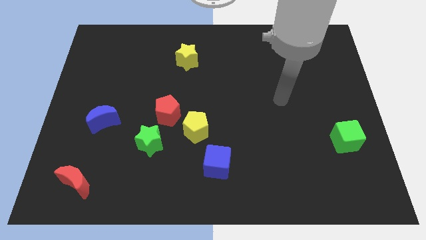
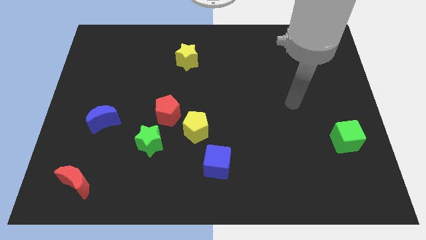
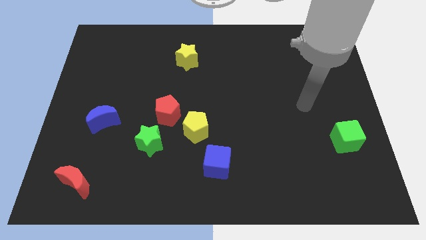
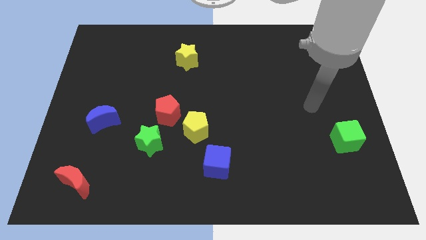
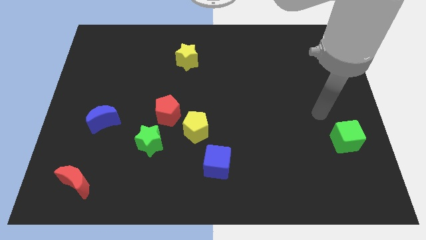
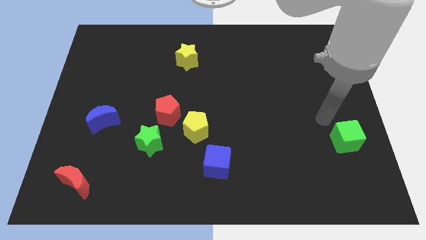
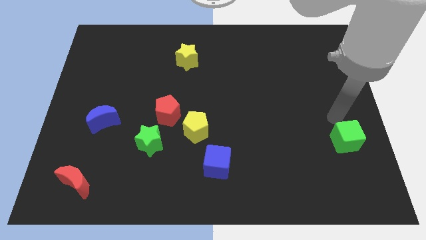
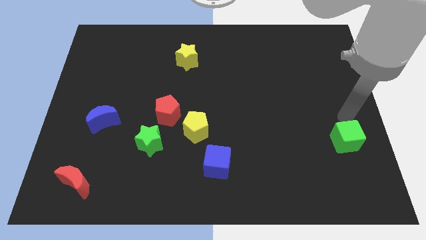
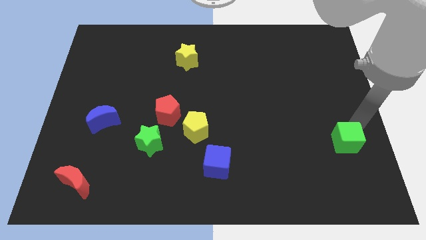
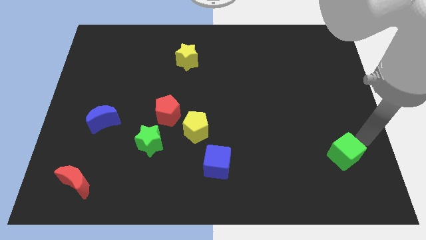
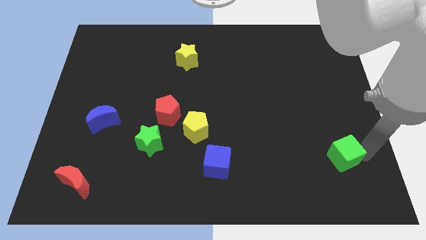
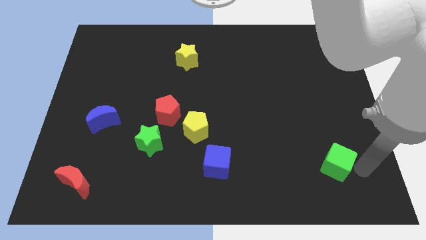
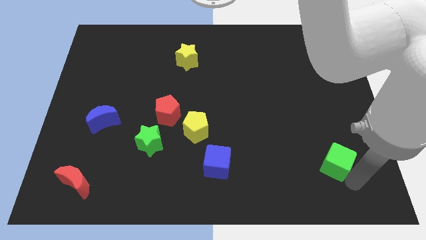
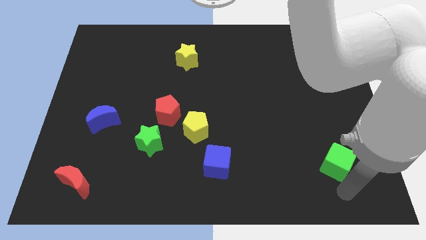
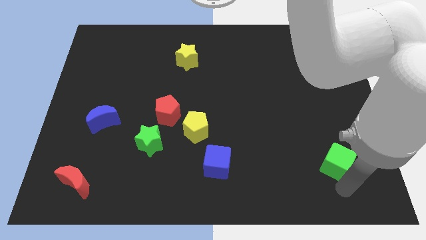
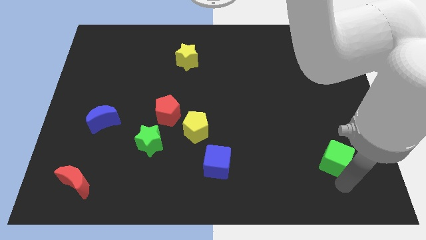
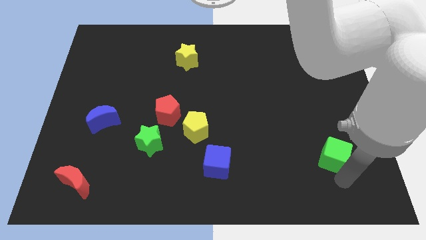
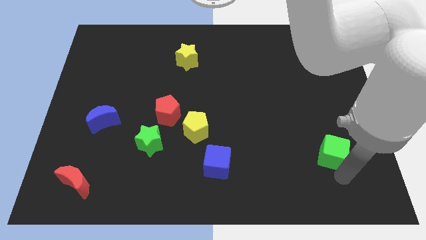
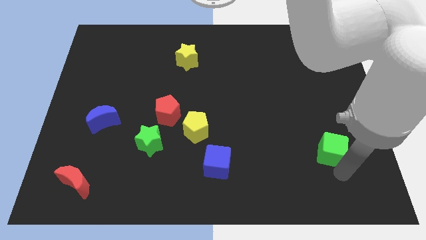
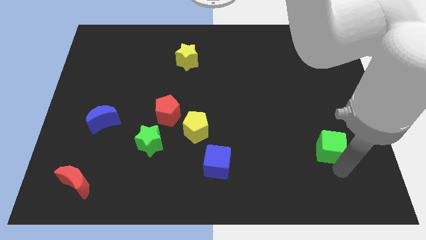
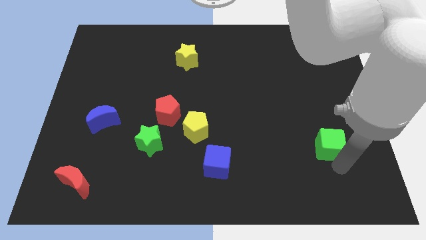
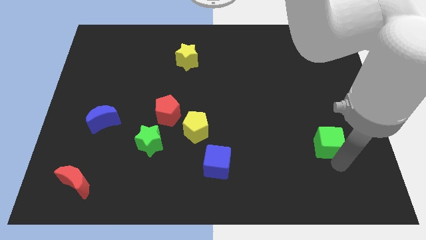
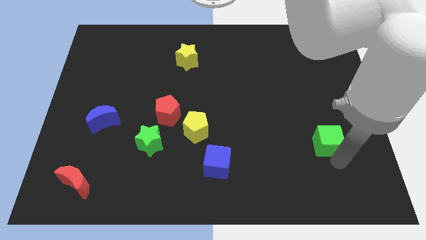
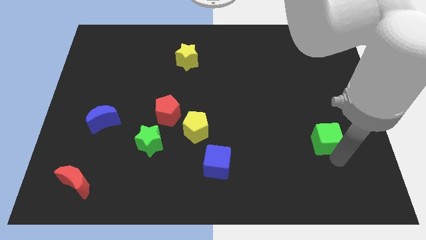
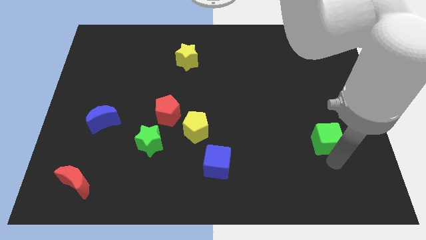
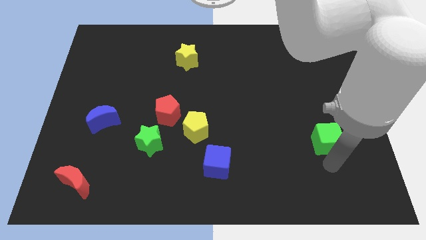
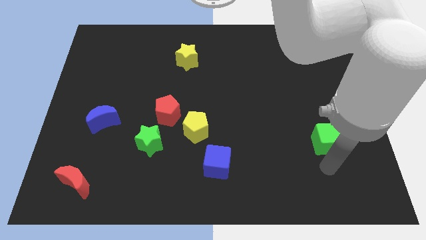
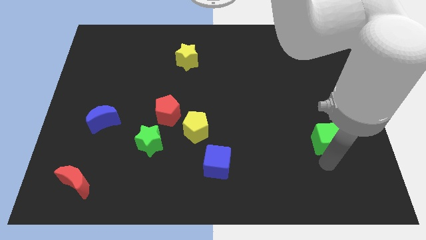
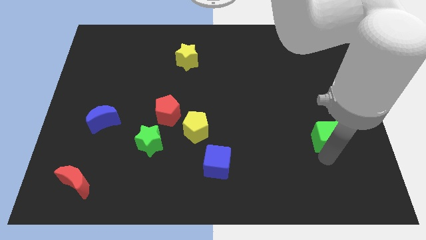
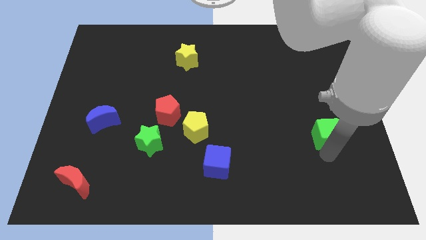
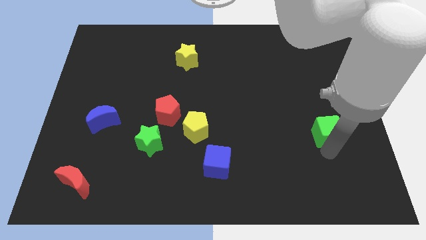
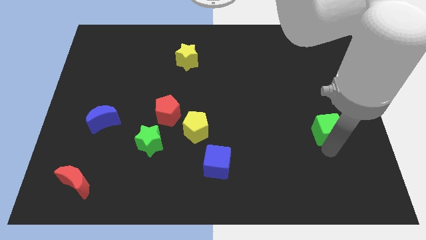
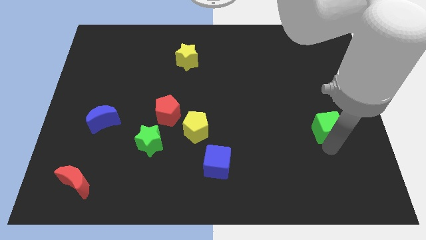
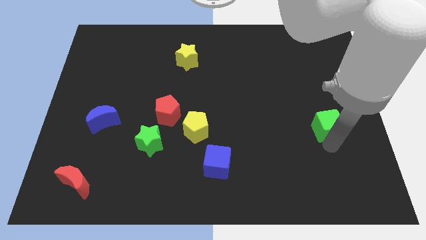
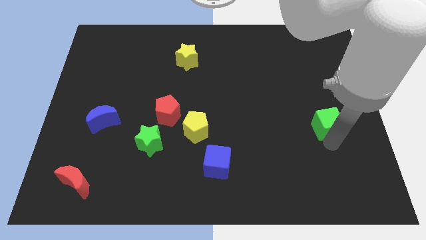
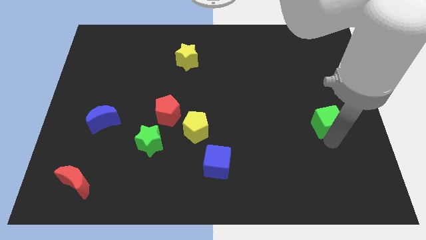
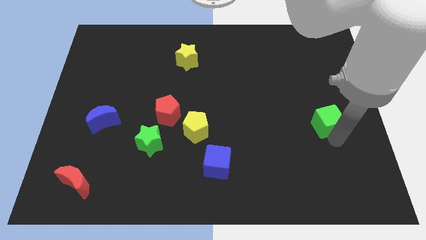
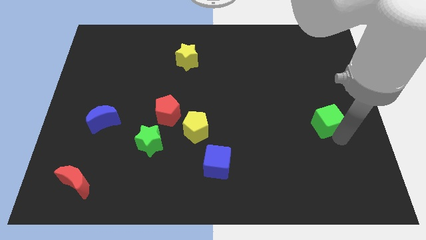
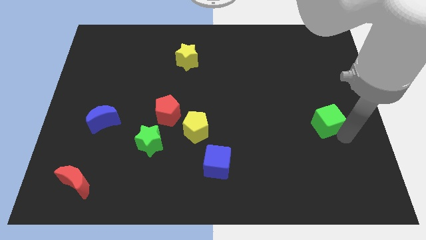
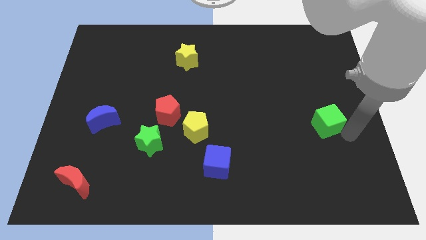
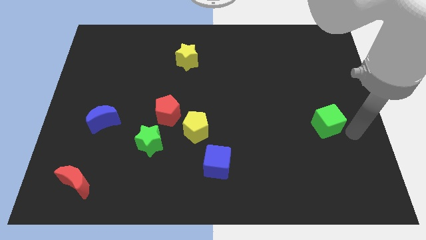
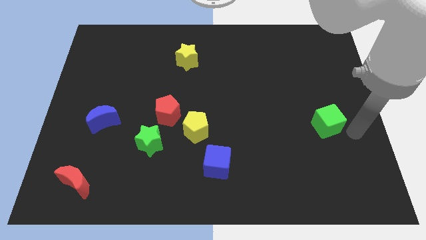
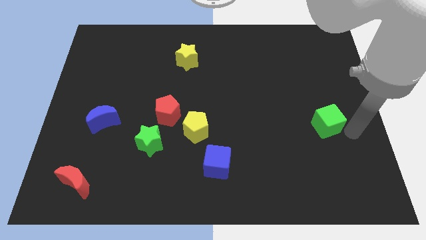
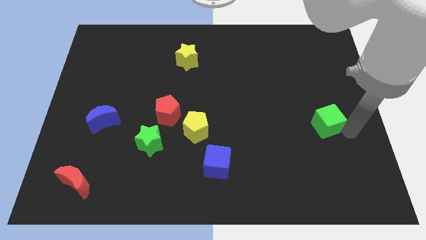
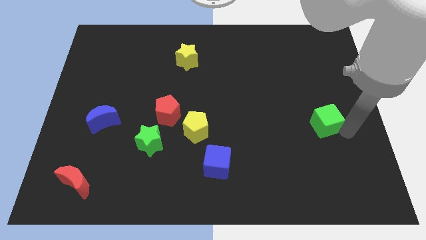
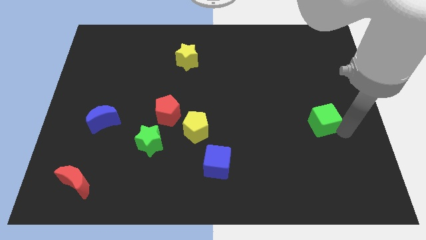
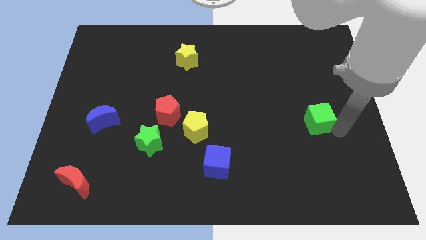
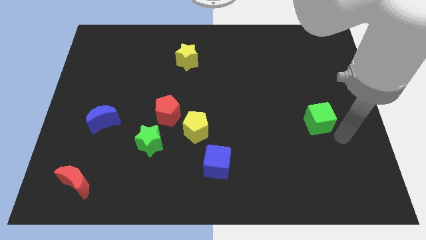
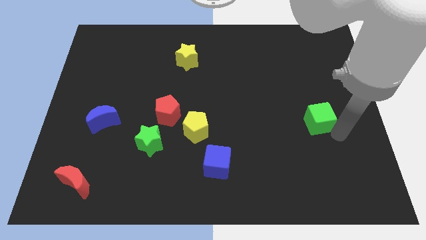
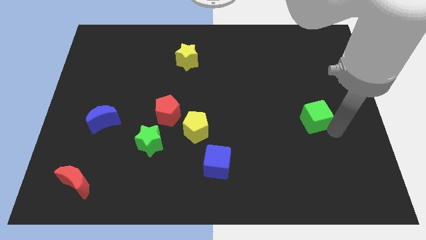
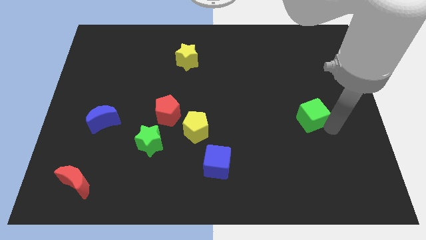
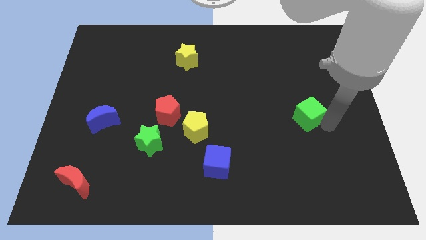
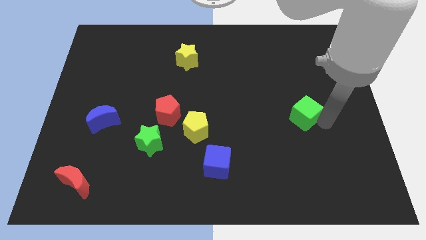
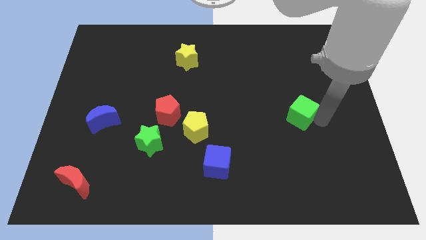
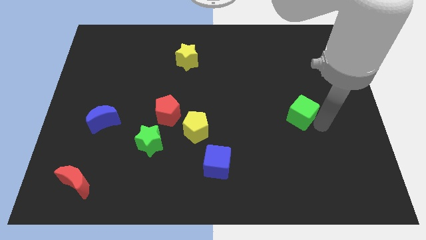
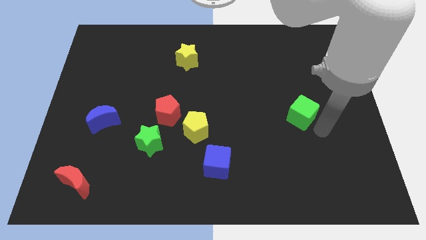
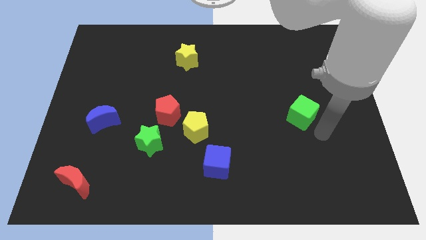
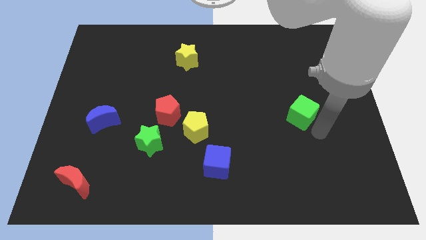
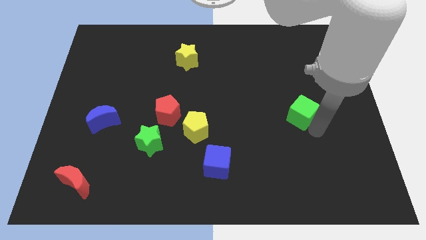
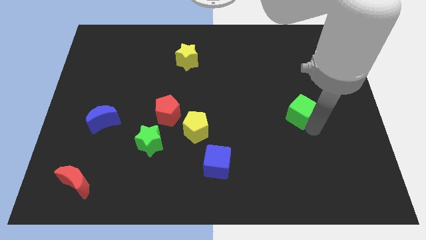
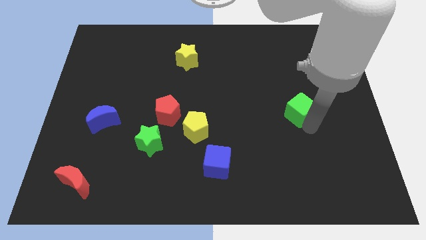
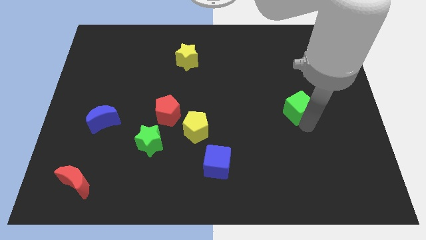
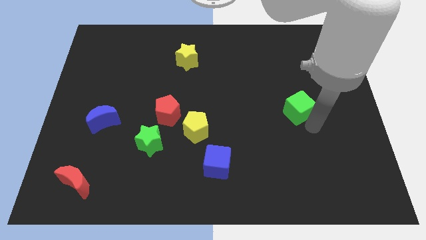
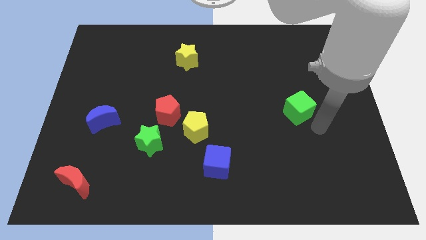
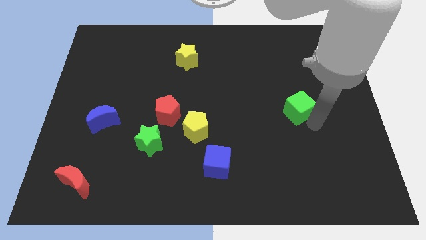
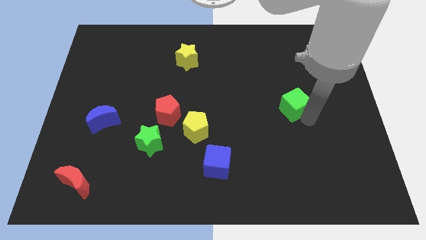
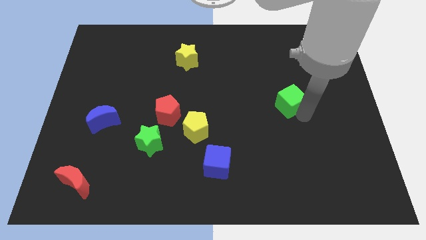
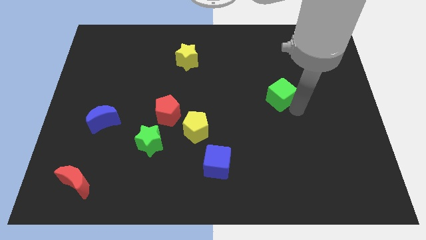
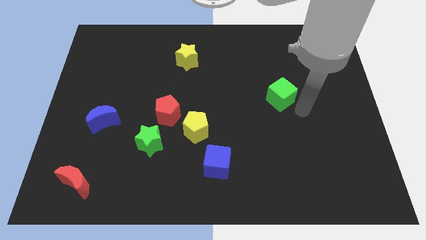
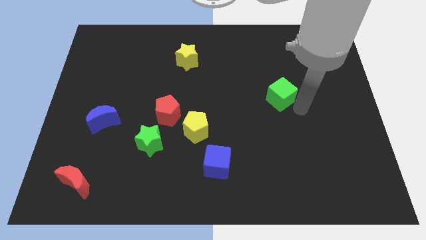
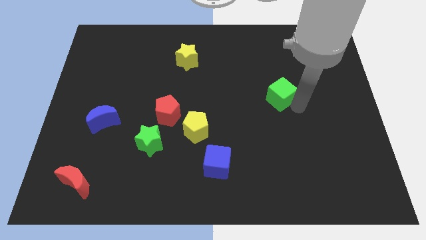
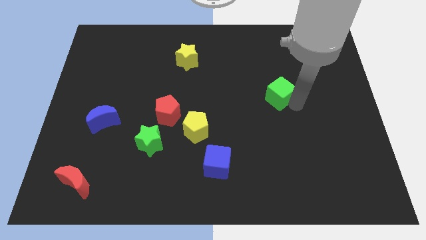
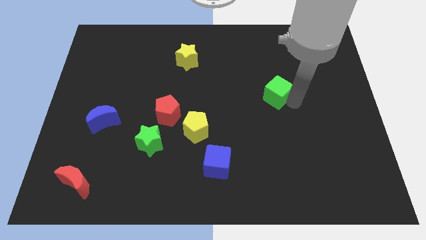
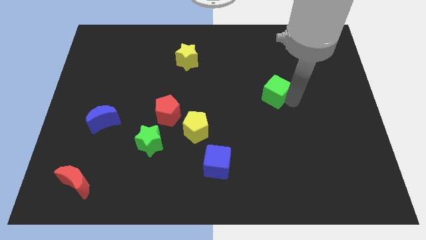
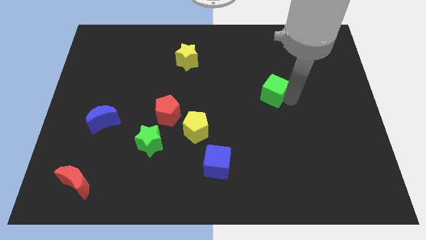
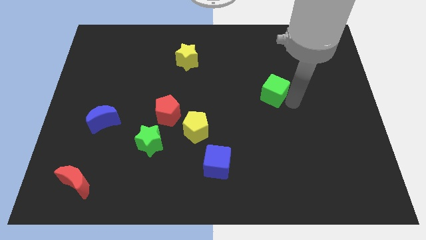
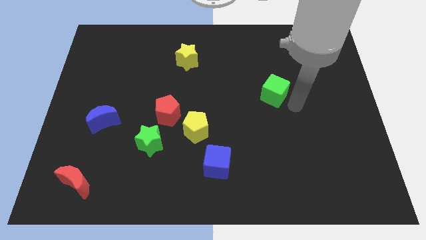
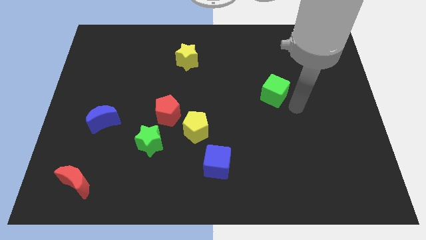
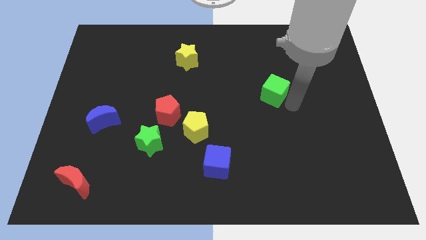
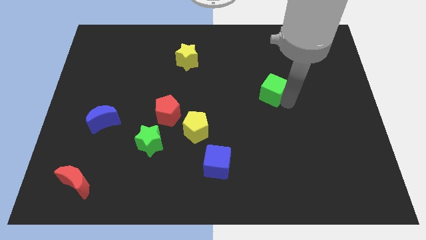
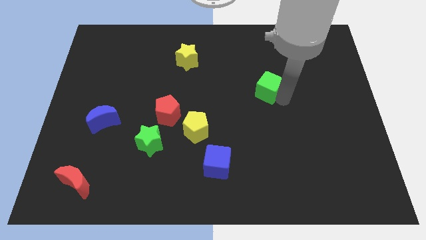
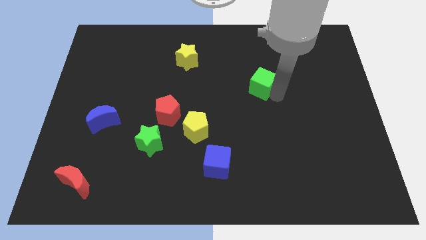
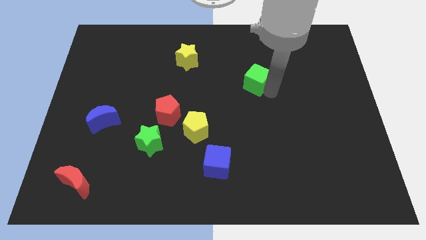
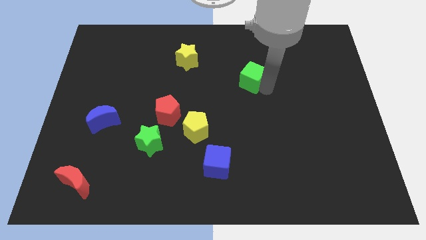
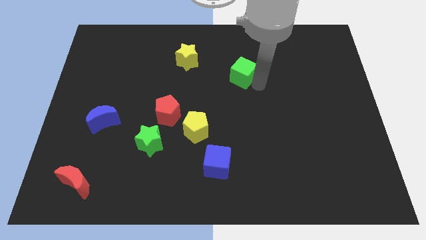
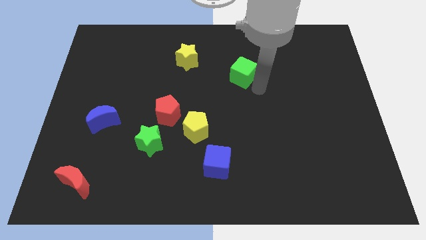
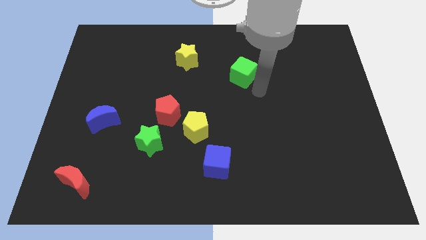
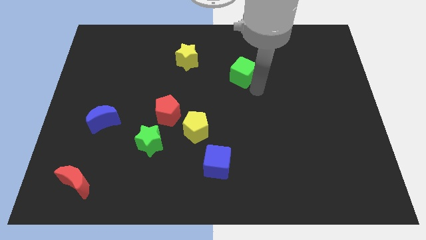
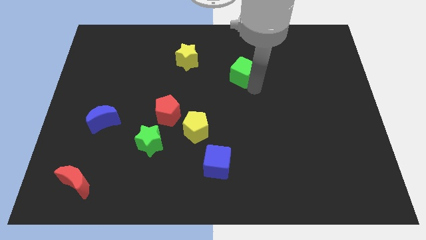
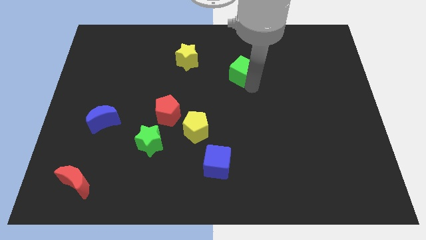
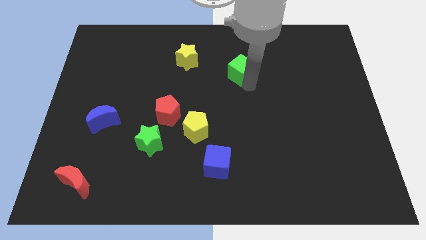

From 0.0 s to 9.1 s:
slide the green cube just right of the yellow star
